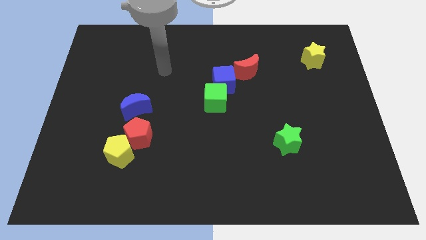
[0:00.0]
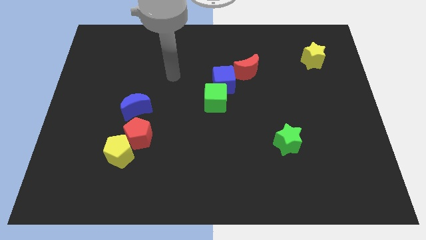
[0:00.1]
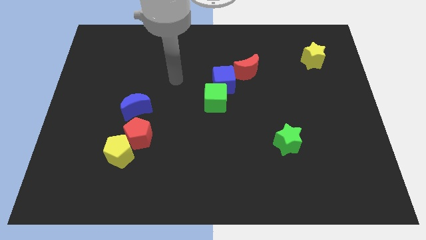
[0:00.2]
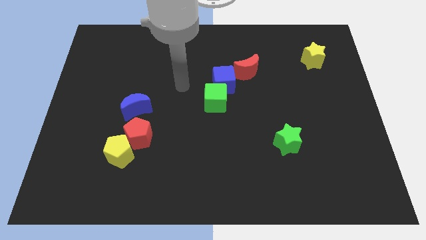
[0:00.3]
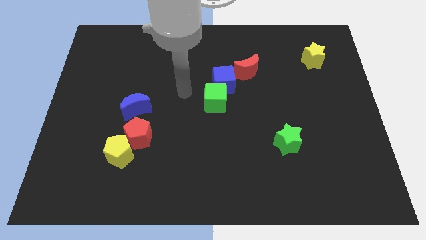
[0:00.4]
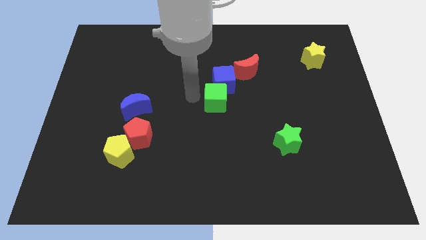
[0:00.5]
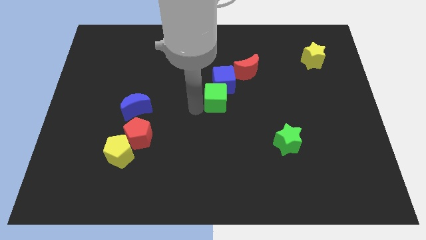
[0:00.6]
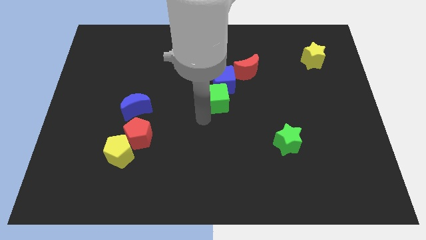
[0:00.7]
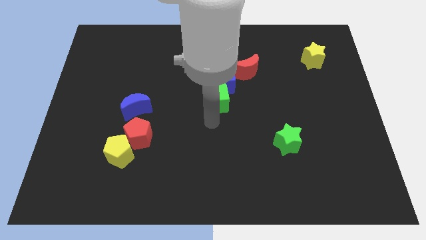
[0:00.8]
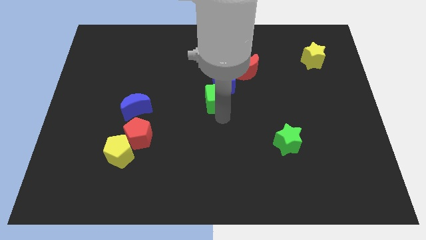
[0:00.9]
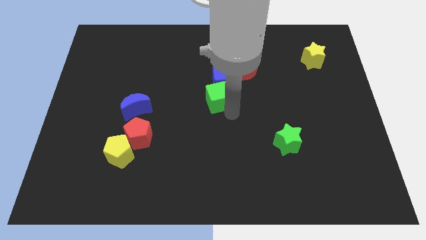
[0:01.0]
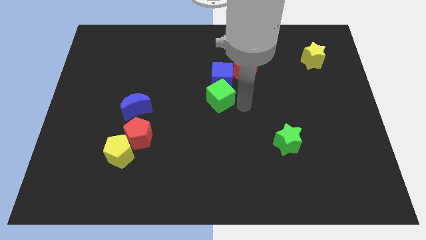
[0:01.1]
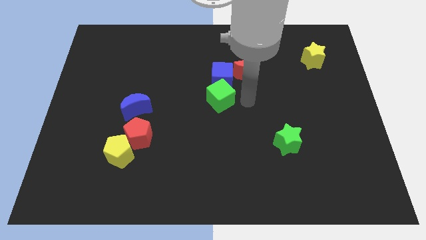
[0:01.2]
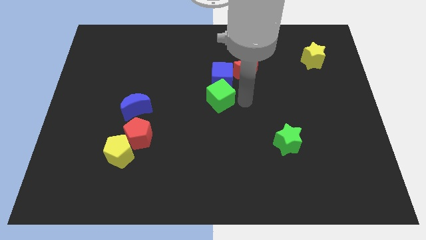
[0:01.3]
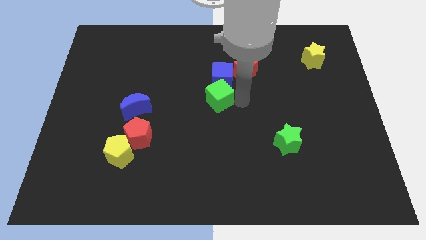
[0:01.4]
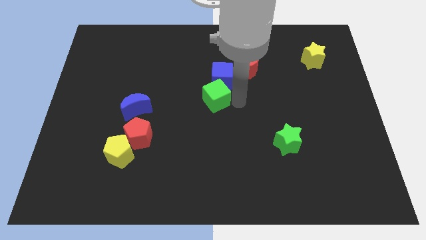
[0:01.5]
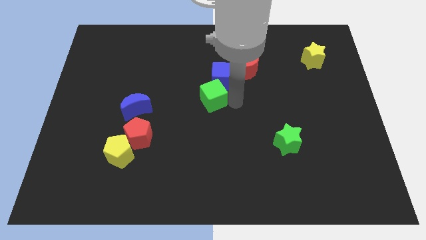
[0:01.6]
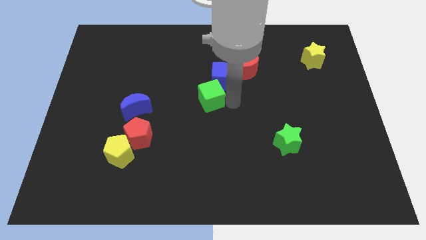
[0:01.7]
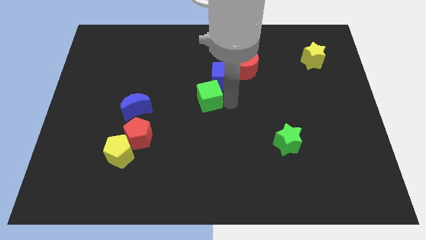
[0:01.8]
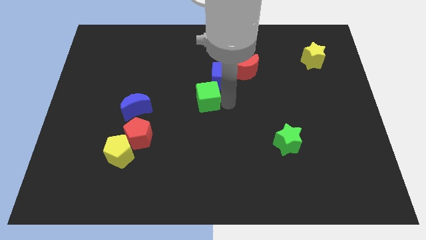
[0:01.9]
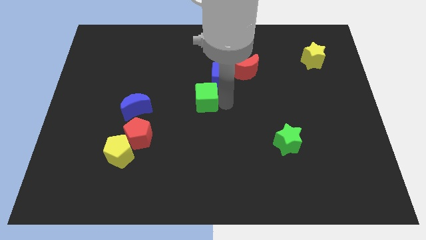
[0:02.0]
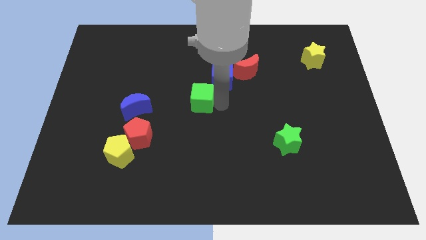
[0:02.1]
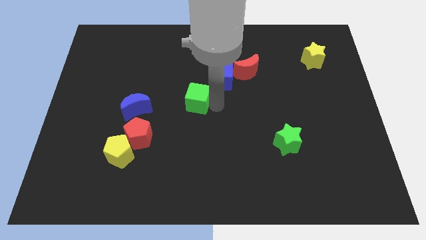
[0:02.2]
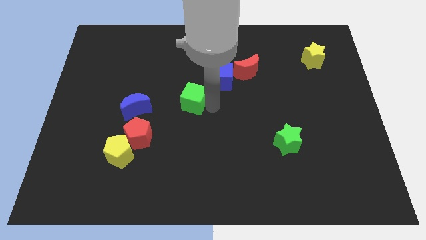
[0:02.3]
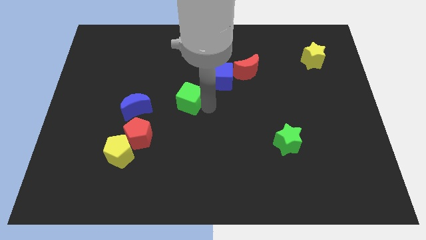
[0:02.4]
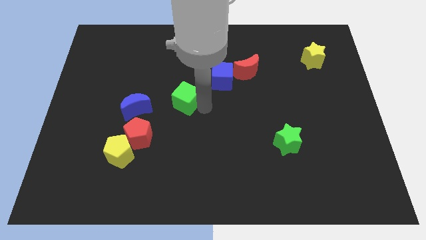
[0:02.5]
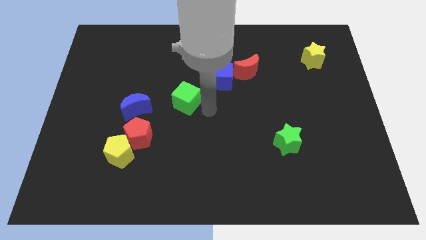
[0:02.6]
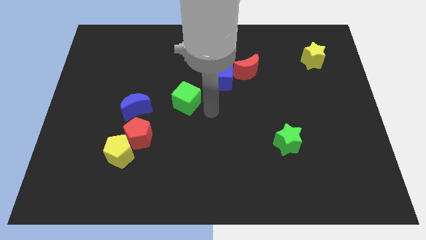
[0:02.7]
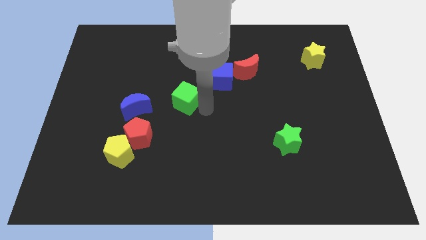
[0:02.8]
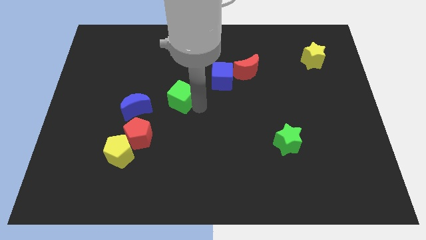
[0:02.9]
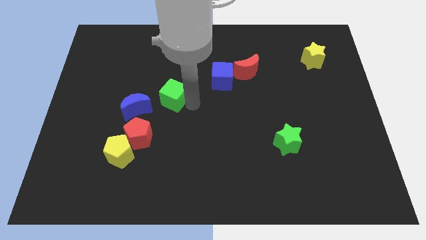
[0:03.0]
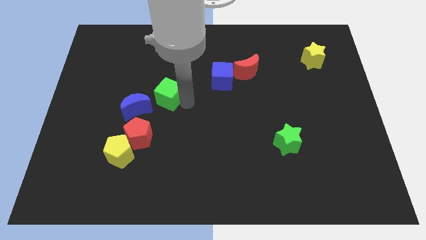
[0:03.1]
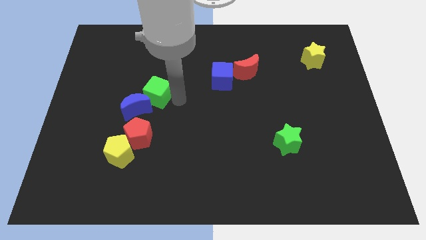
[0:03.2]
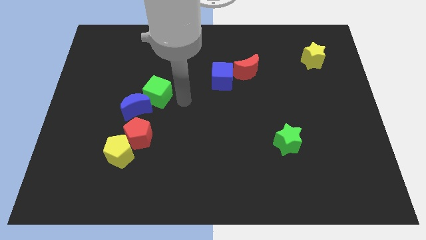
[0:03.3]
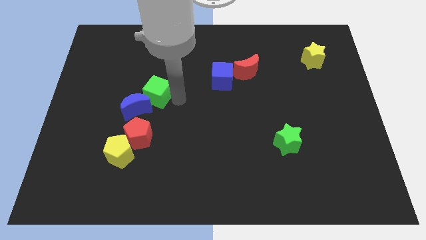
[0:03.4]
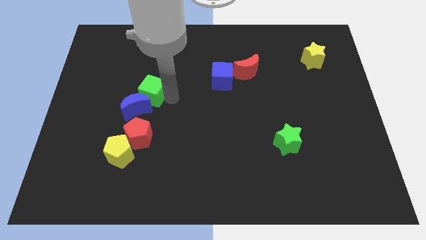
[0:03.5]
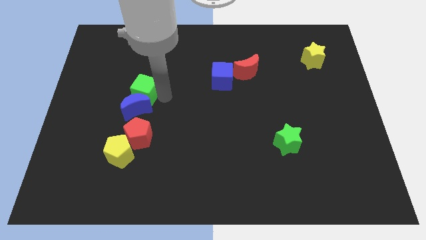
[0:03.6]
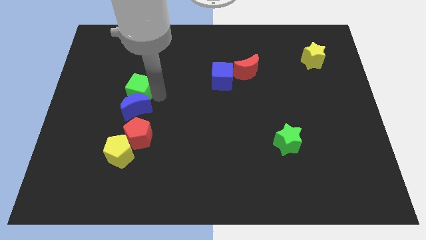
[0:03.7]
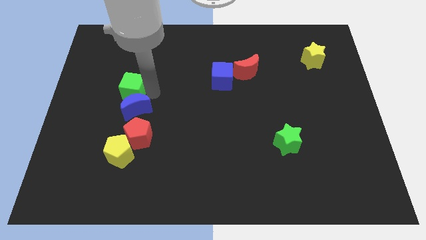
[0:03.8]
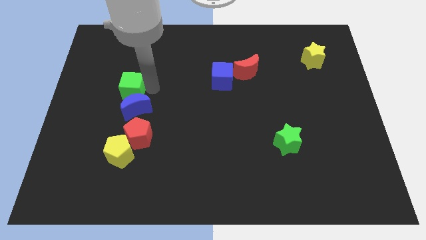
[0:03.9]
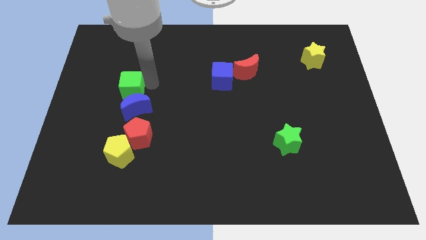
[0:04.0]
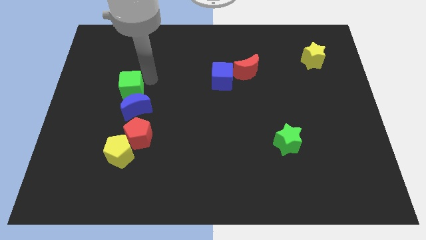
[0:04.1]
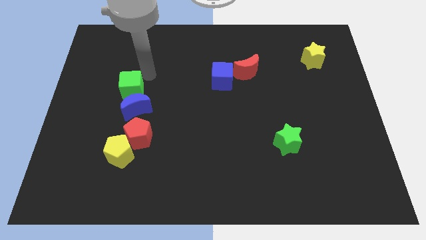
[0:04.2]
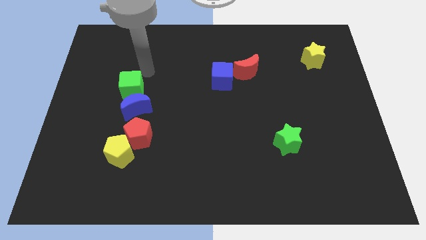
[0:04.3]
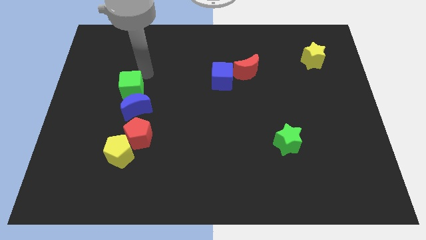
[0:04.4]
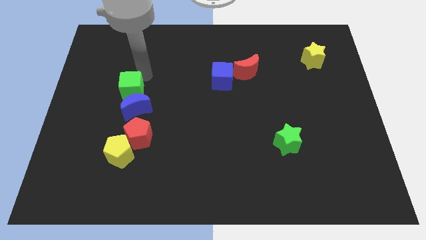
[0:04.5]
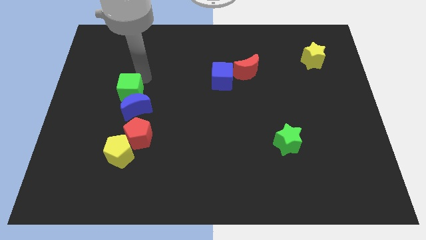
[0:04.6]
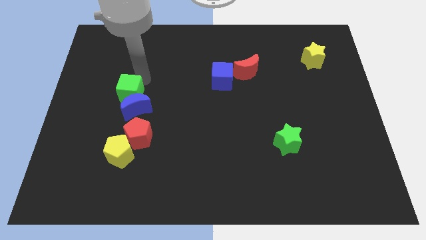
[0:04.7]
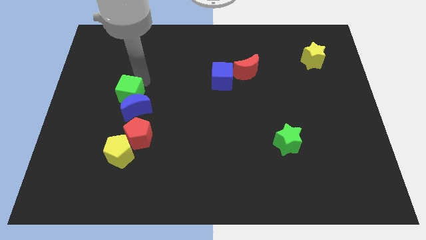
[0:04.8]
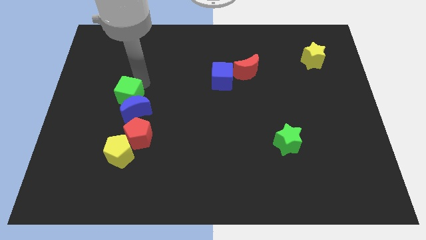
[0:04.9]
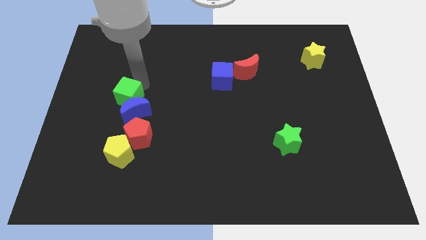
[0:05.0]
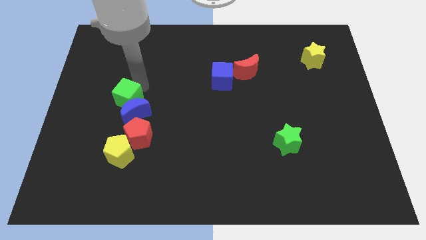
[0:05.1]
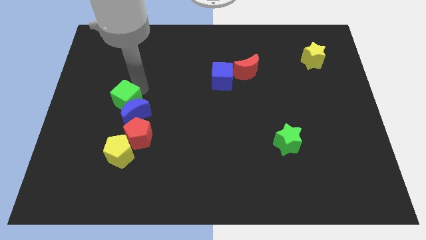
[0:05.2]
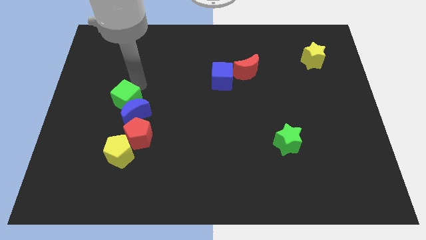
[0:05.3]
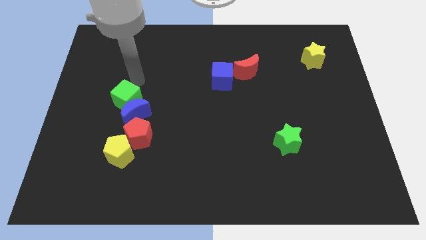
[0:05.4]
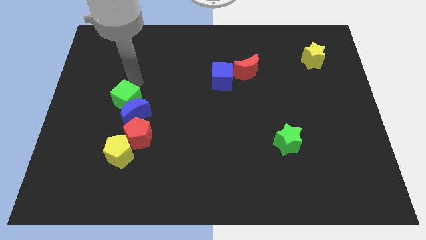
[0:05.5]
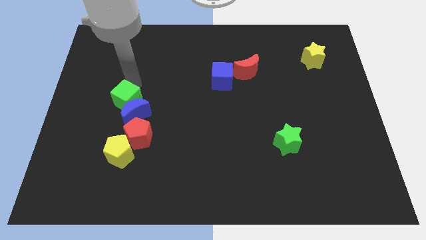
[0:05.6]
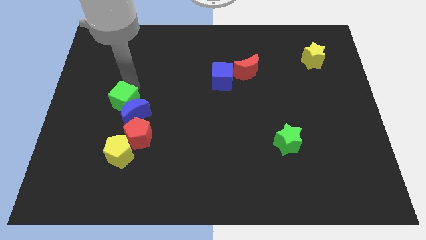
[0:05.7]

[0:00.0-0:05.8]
move the green cube to the top left side of the red pentagon

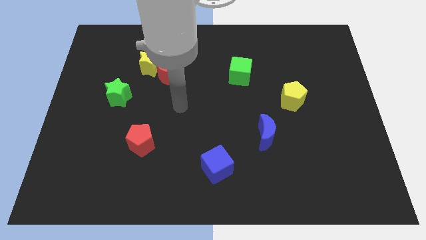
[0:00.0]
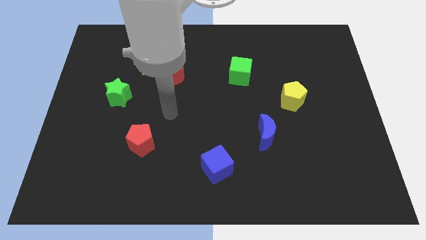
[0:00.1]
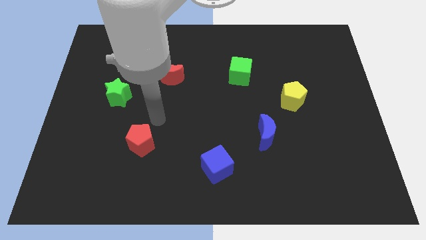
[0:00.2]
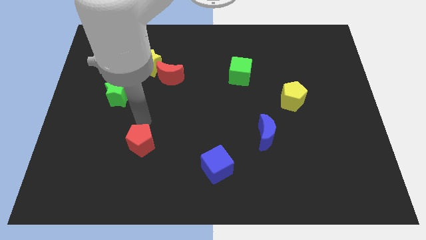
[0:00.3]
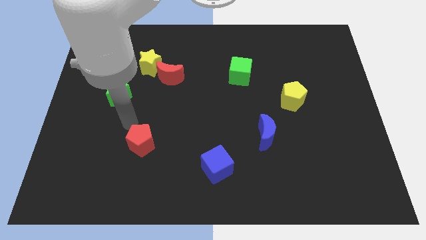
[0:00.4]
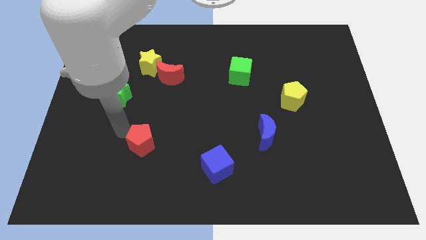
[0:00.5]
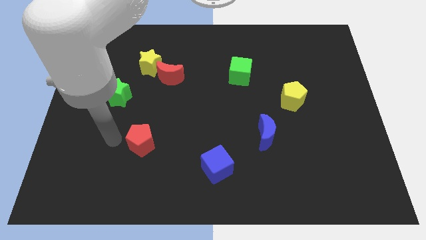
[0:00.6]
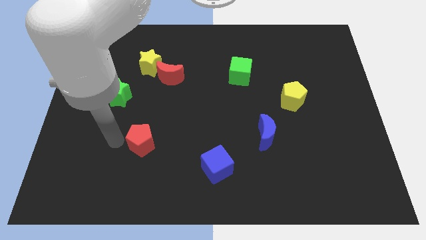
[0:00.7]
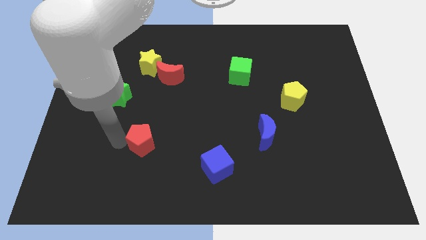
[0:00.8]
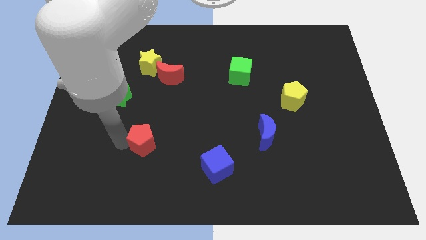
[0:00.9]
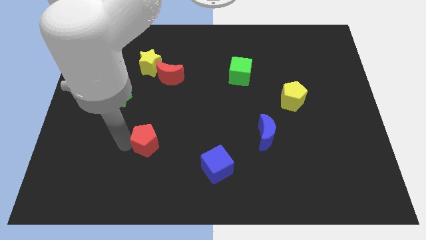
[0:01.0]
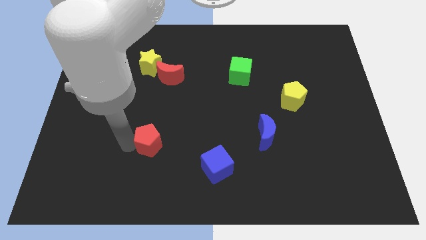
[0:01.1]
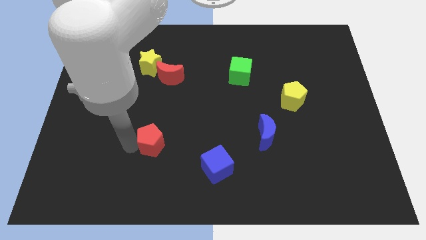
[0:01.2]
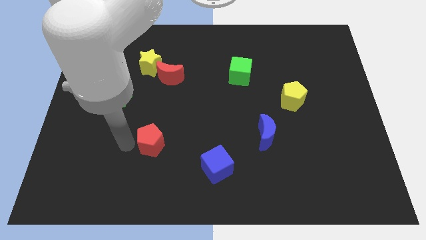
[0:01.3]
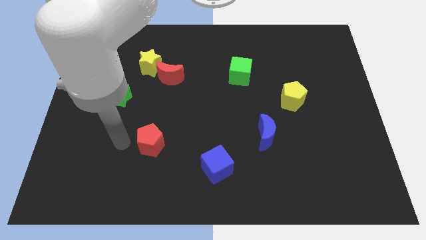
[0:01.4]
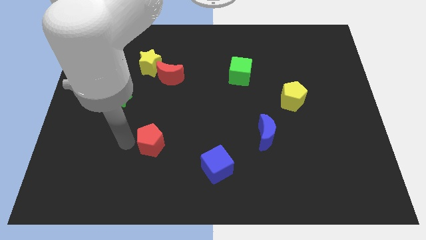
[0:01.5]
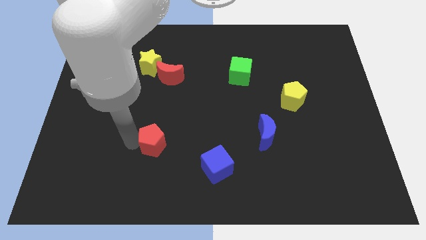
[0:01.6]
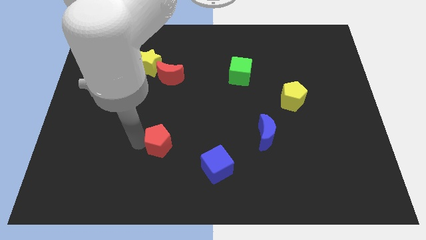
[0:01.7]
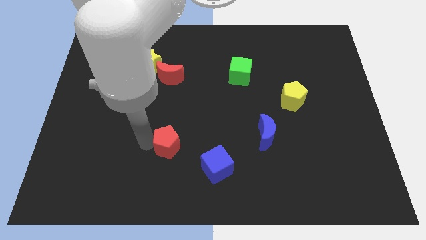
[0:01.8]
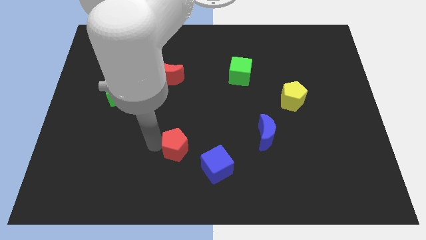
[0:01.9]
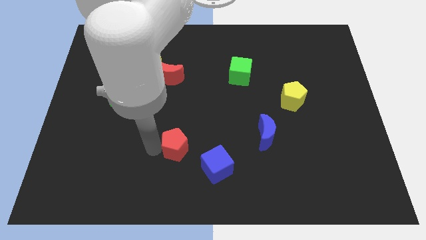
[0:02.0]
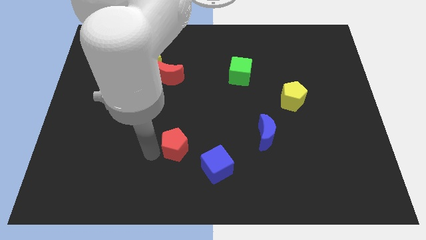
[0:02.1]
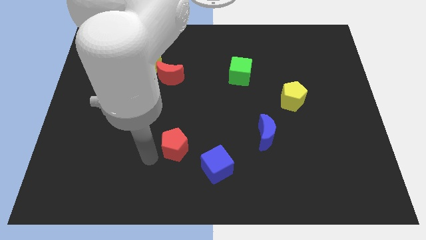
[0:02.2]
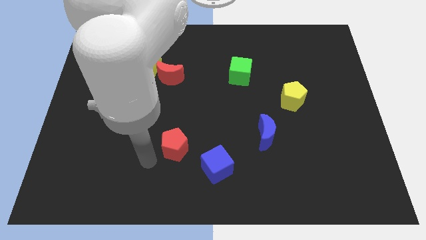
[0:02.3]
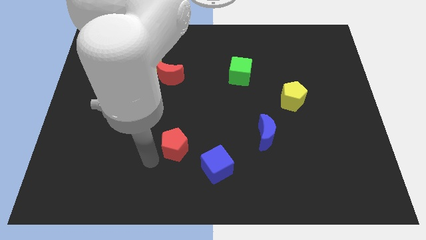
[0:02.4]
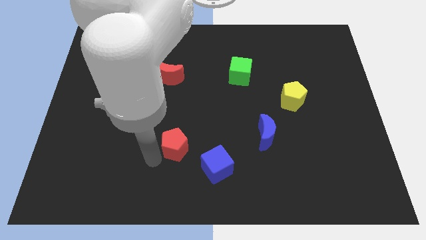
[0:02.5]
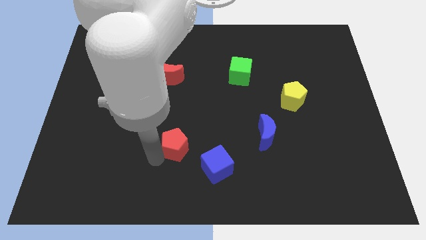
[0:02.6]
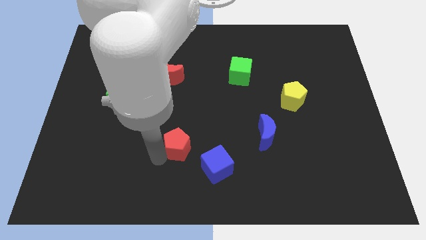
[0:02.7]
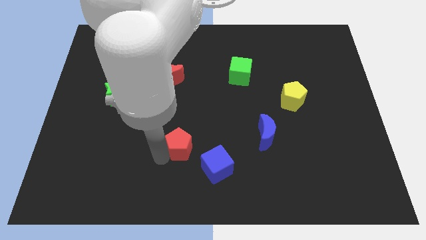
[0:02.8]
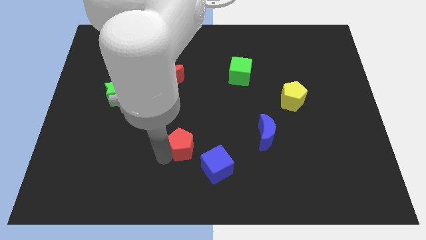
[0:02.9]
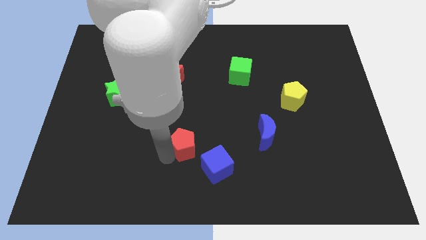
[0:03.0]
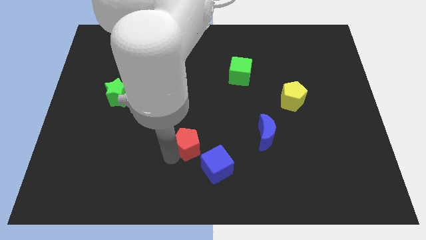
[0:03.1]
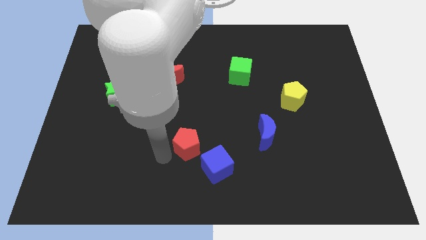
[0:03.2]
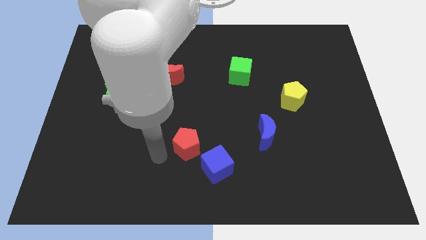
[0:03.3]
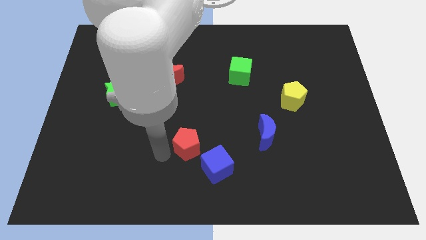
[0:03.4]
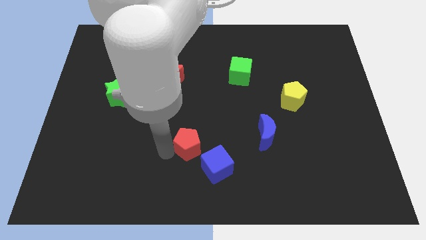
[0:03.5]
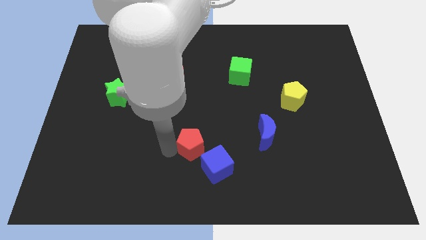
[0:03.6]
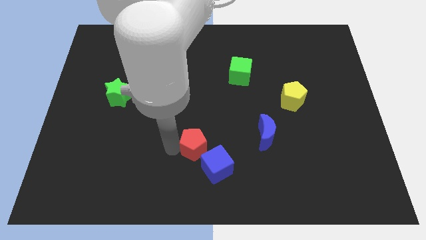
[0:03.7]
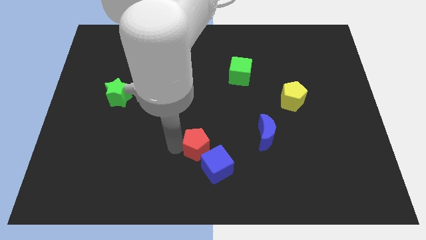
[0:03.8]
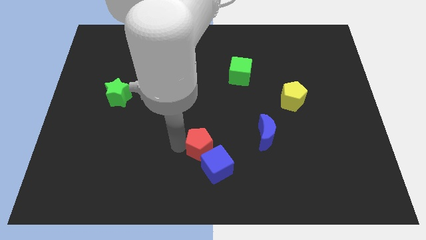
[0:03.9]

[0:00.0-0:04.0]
put the red pentagon to the left of the blue moon
